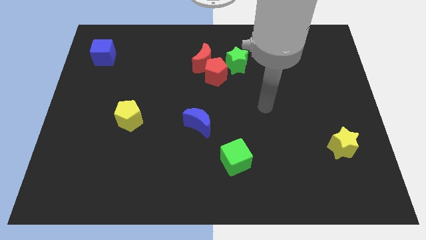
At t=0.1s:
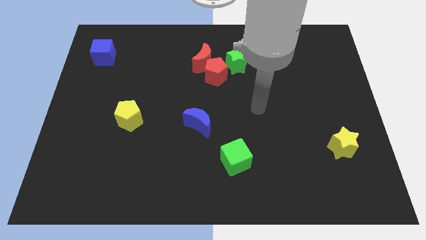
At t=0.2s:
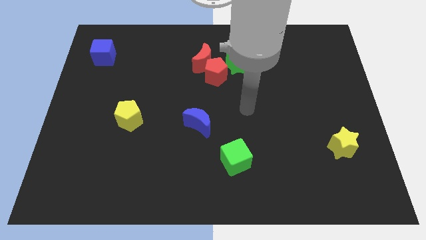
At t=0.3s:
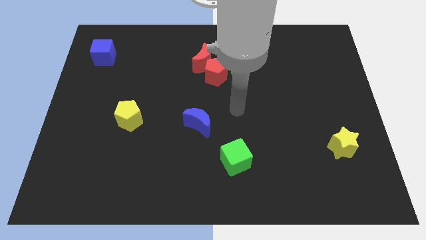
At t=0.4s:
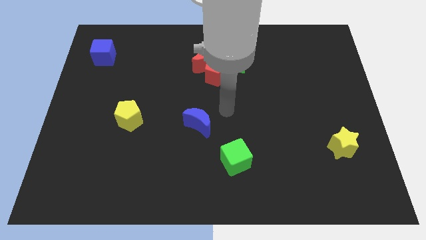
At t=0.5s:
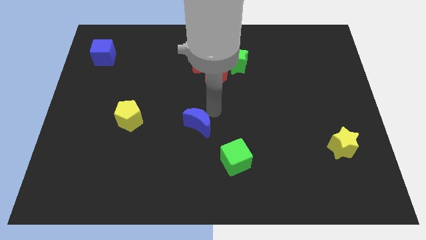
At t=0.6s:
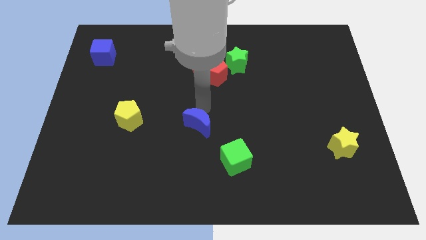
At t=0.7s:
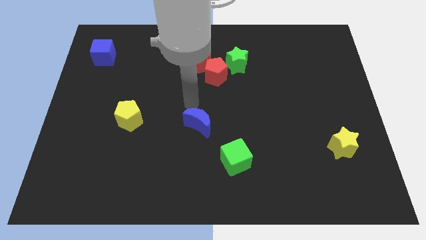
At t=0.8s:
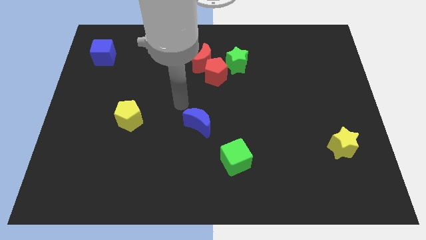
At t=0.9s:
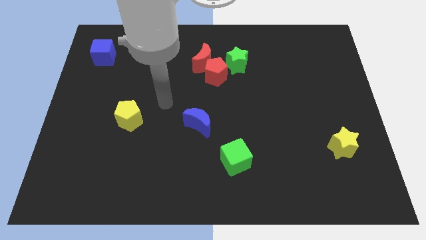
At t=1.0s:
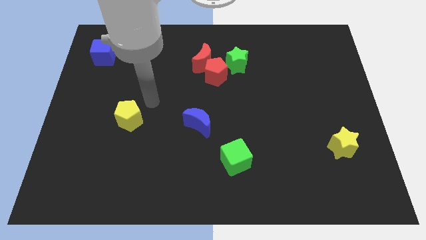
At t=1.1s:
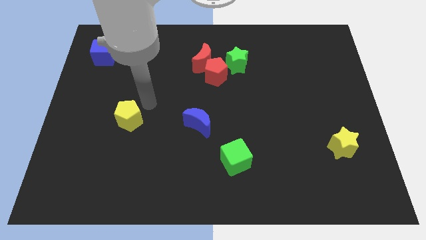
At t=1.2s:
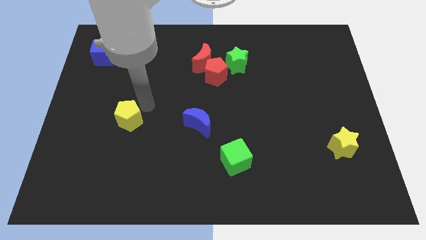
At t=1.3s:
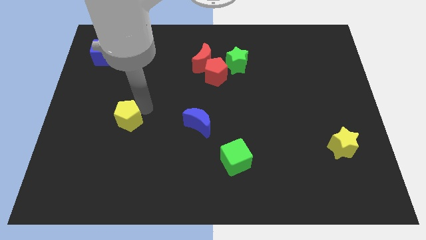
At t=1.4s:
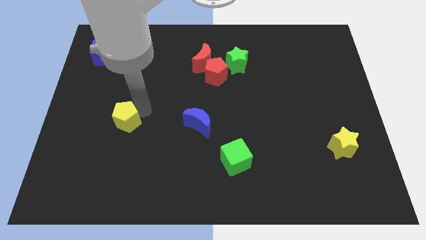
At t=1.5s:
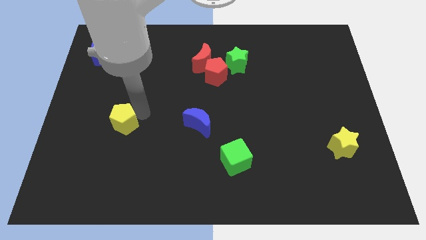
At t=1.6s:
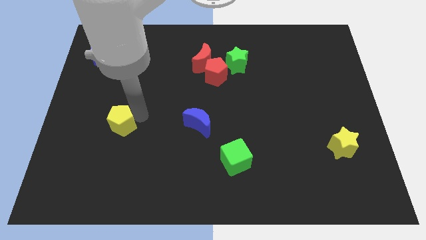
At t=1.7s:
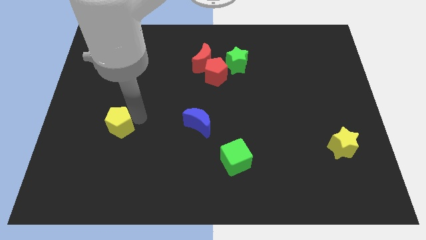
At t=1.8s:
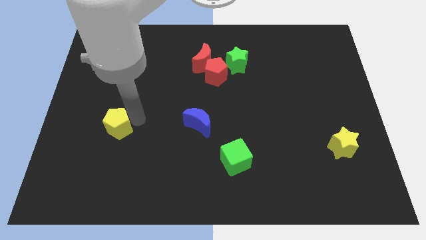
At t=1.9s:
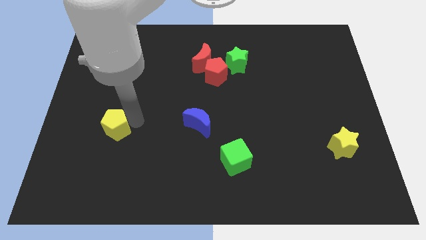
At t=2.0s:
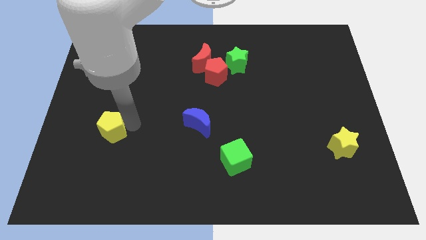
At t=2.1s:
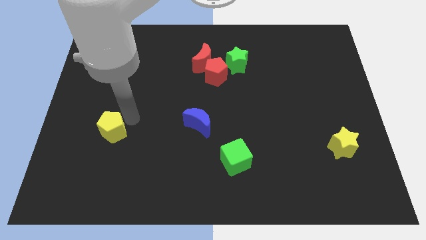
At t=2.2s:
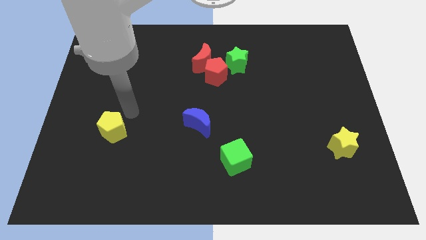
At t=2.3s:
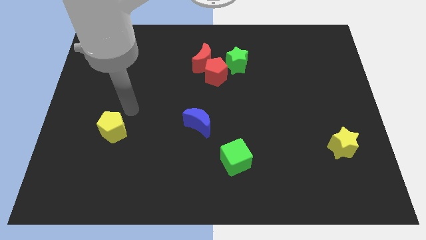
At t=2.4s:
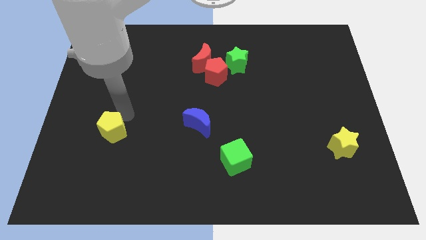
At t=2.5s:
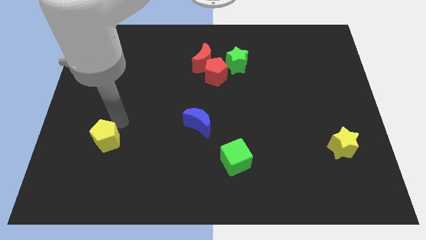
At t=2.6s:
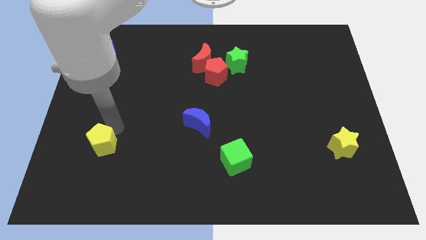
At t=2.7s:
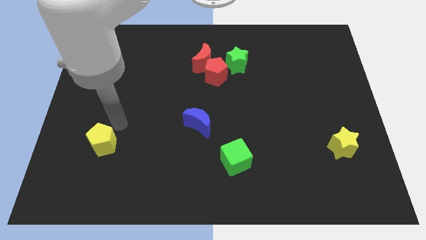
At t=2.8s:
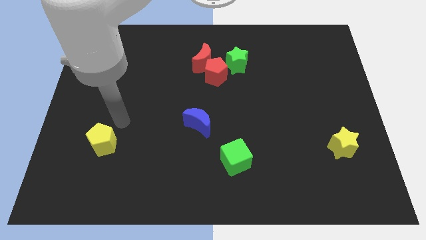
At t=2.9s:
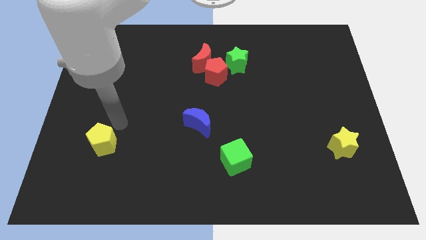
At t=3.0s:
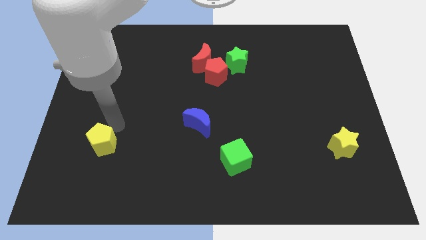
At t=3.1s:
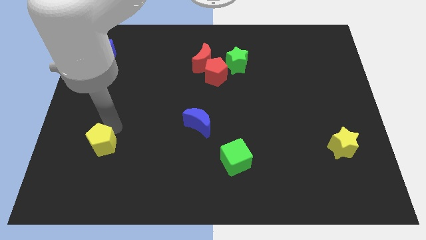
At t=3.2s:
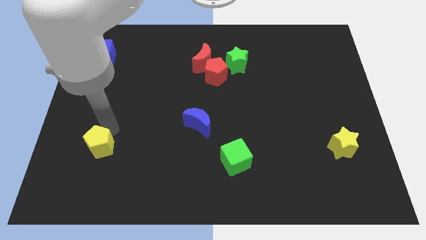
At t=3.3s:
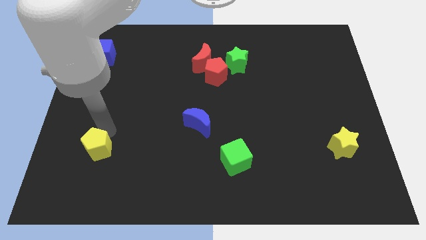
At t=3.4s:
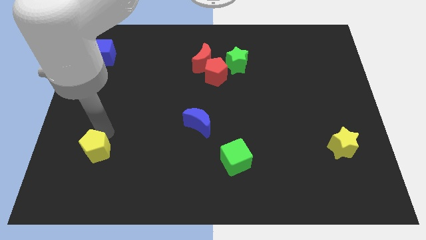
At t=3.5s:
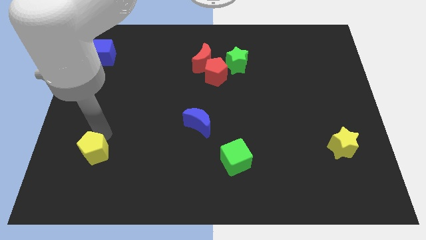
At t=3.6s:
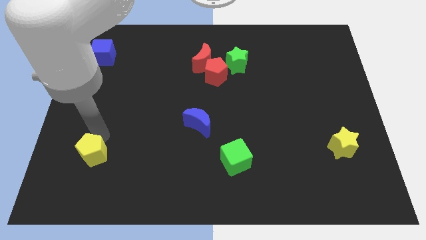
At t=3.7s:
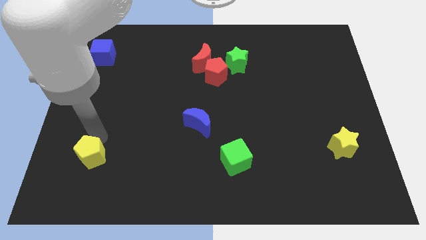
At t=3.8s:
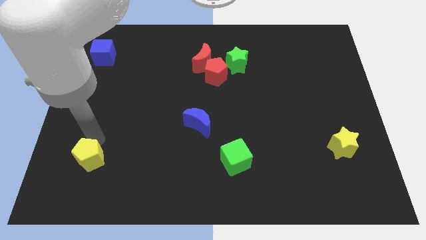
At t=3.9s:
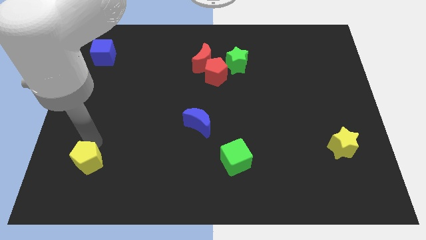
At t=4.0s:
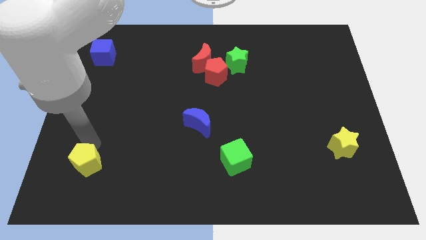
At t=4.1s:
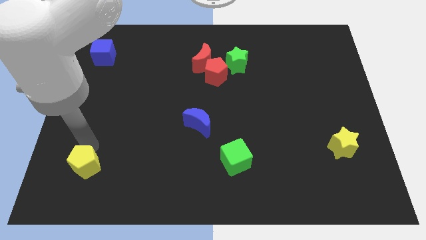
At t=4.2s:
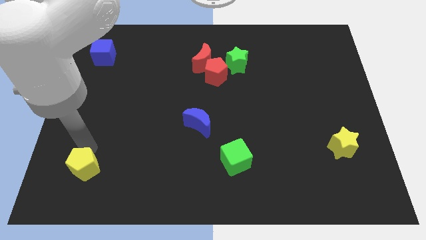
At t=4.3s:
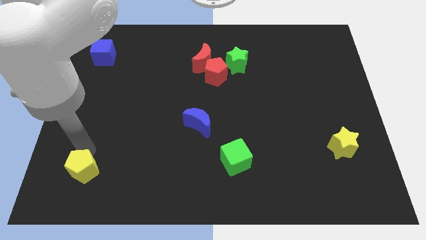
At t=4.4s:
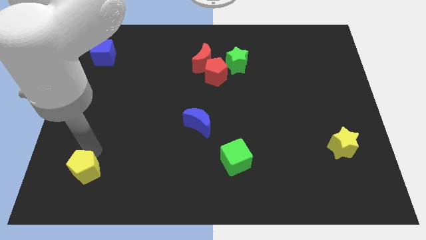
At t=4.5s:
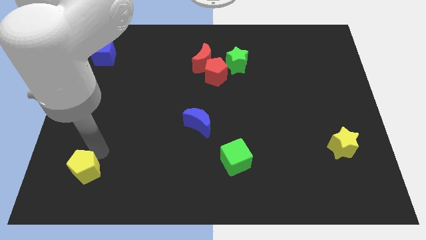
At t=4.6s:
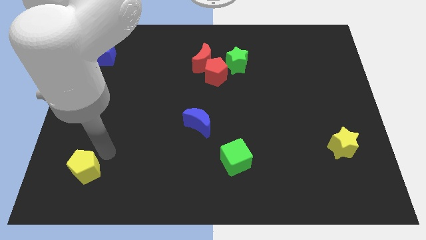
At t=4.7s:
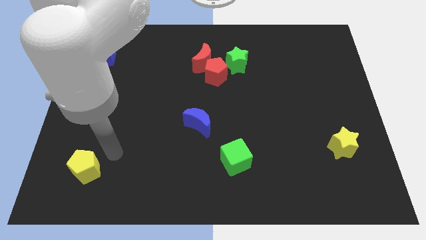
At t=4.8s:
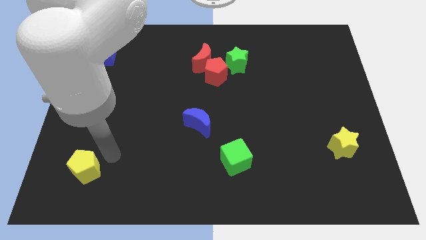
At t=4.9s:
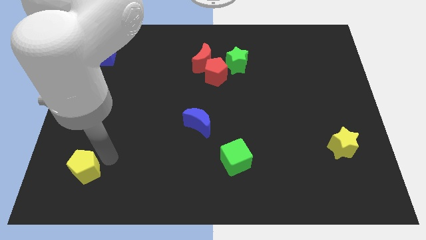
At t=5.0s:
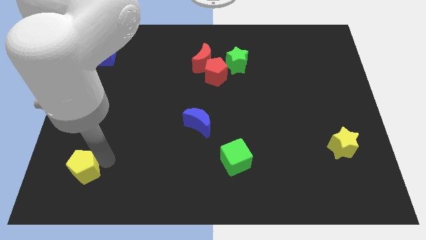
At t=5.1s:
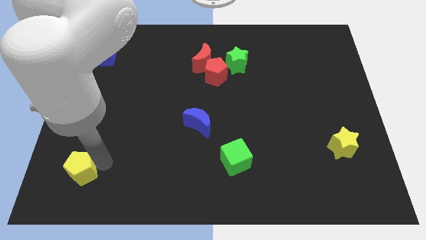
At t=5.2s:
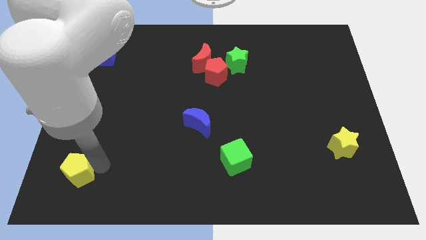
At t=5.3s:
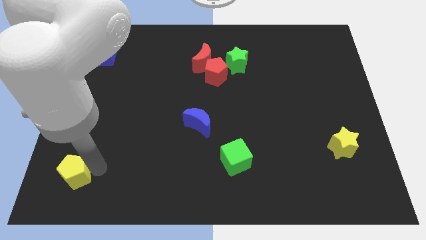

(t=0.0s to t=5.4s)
put the yellow pentagon to the lower left corner

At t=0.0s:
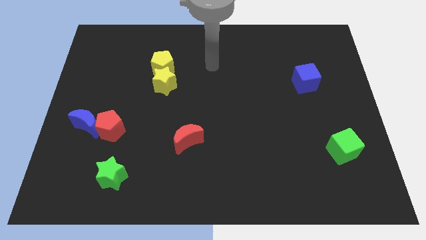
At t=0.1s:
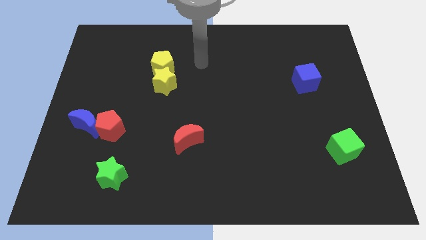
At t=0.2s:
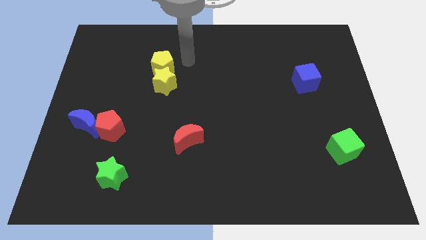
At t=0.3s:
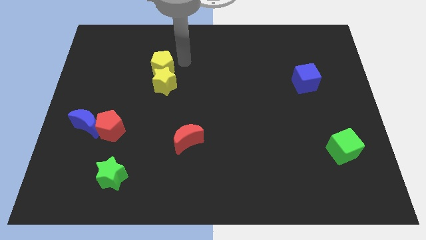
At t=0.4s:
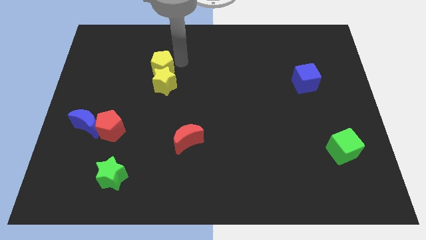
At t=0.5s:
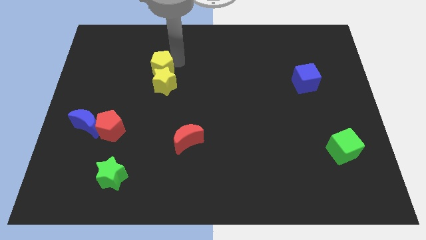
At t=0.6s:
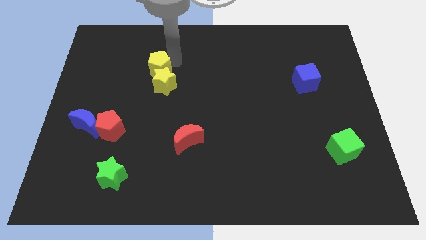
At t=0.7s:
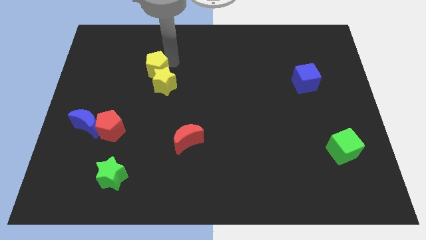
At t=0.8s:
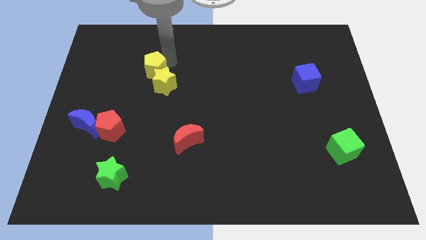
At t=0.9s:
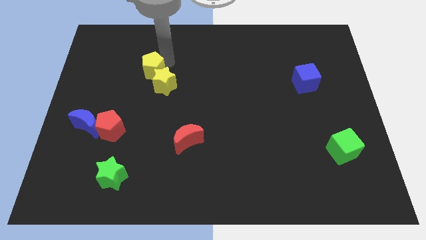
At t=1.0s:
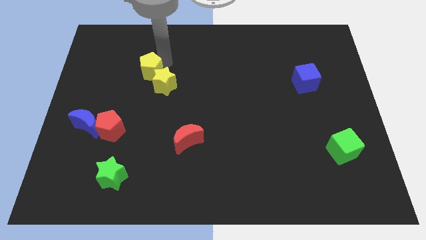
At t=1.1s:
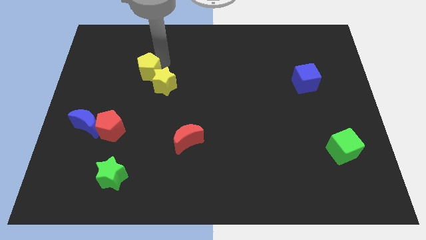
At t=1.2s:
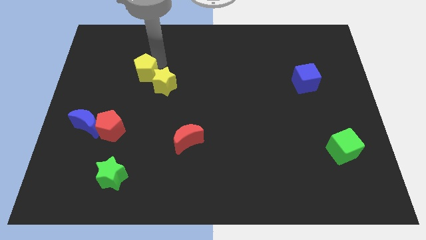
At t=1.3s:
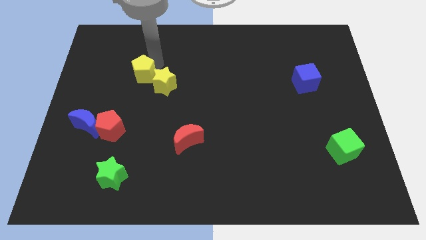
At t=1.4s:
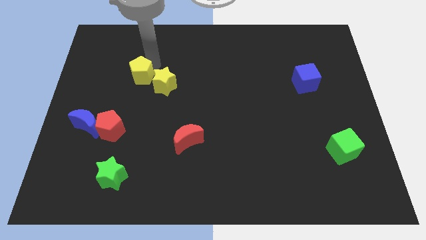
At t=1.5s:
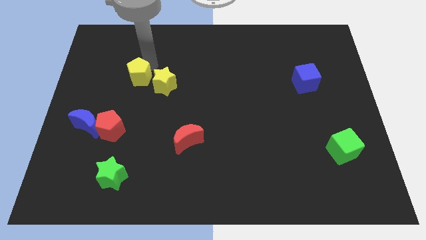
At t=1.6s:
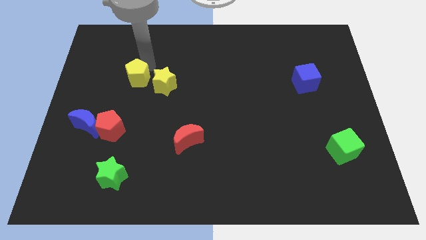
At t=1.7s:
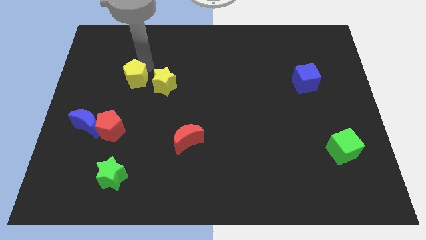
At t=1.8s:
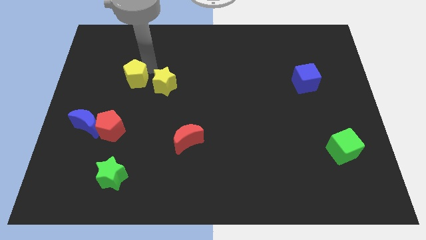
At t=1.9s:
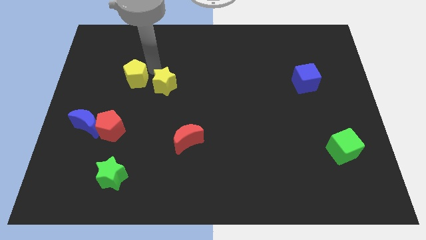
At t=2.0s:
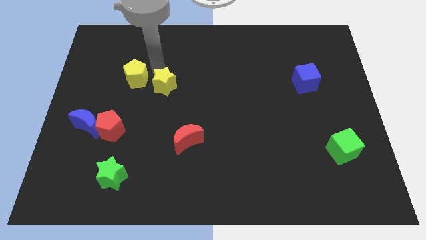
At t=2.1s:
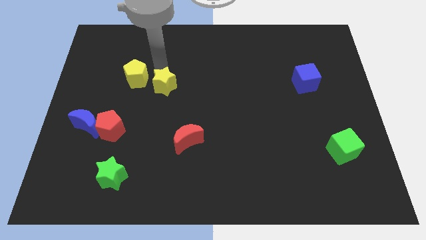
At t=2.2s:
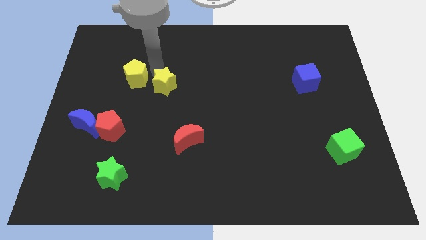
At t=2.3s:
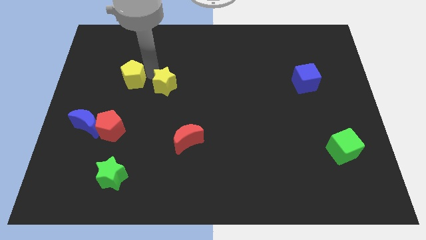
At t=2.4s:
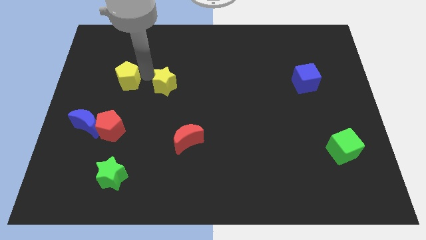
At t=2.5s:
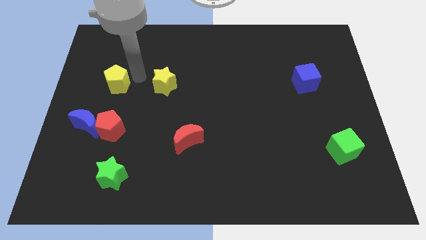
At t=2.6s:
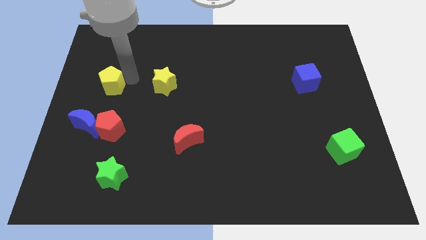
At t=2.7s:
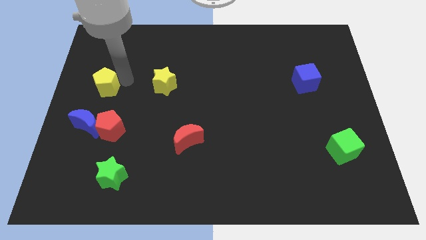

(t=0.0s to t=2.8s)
put the yellow pentagon to the center left
